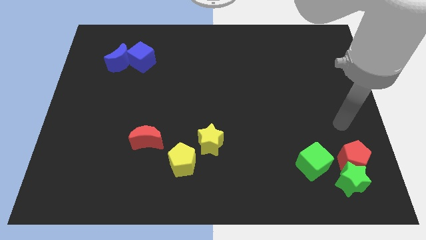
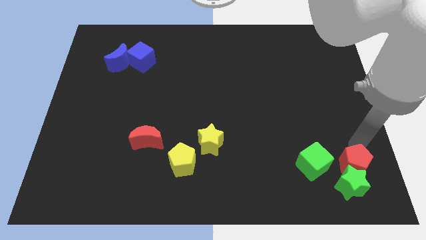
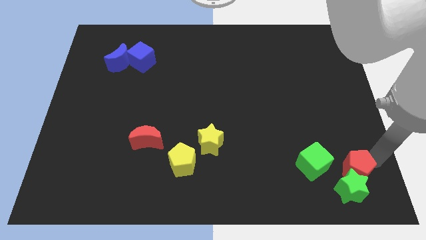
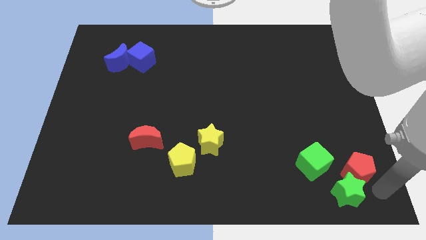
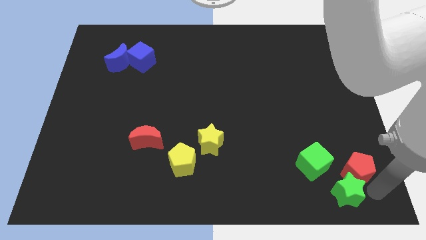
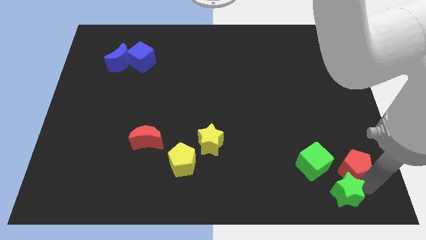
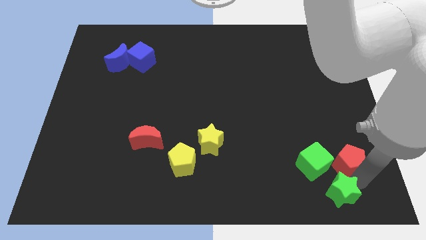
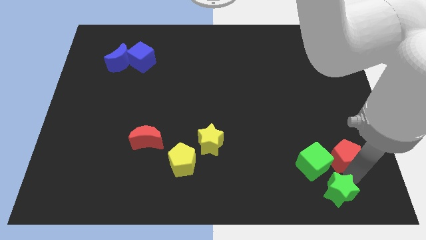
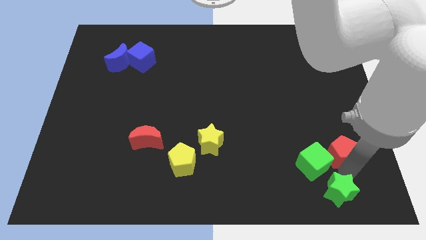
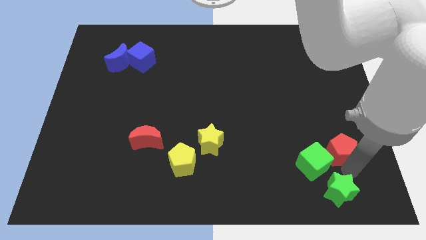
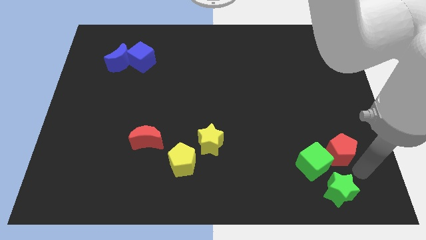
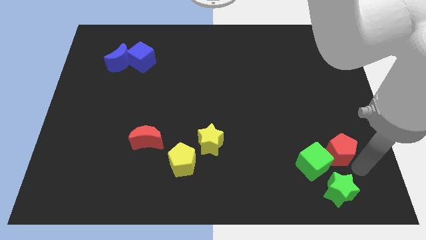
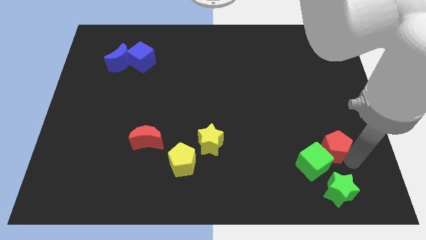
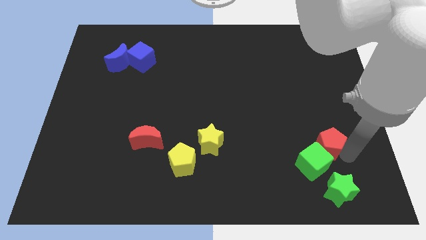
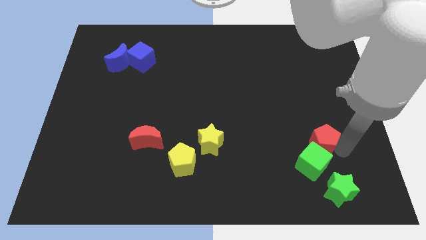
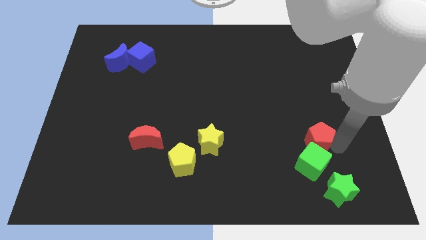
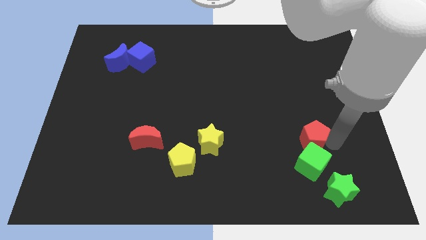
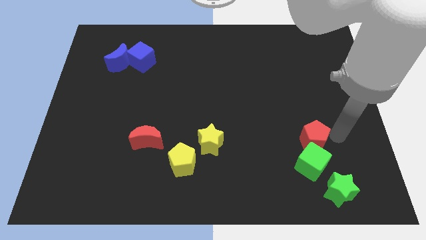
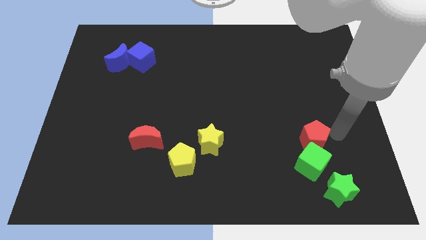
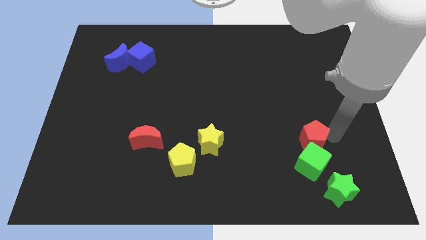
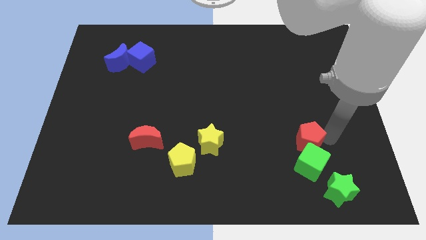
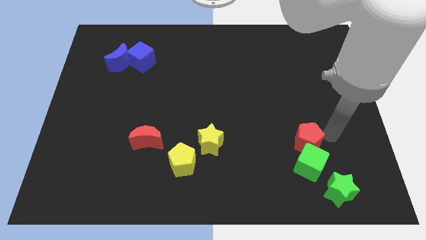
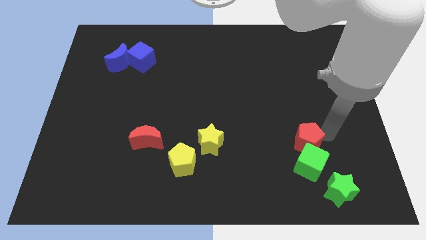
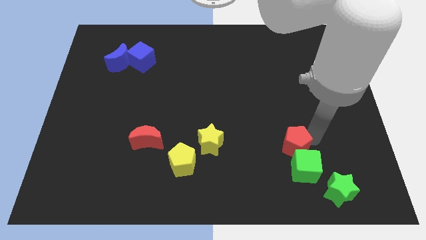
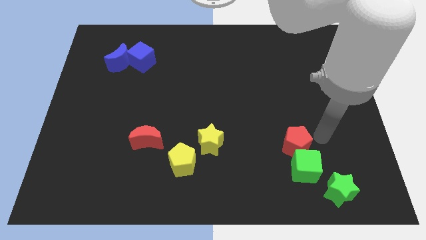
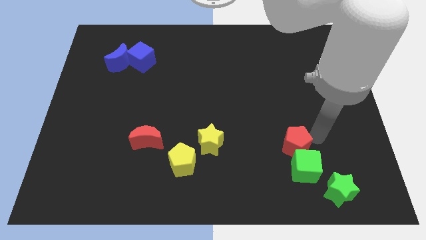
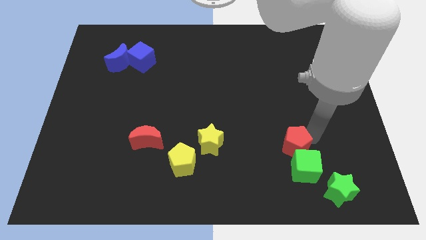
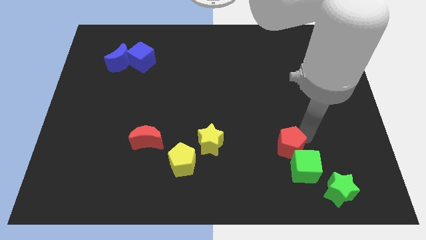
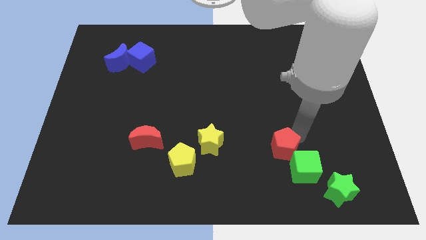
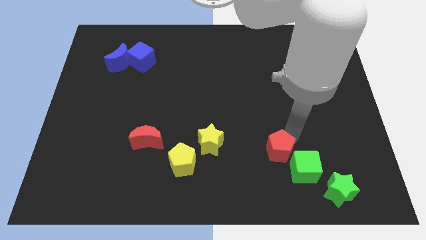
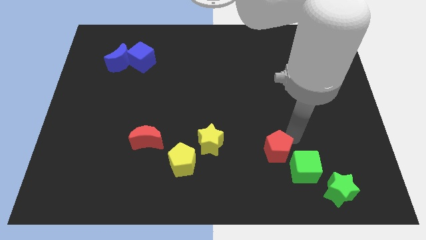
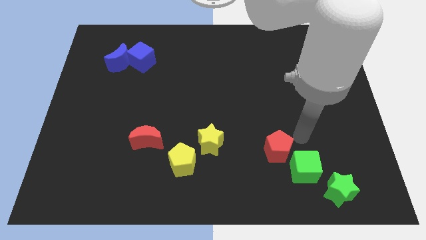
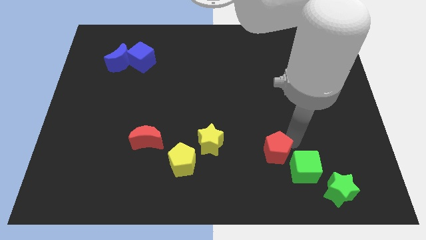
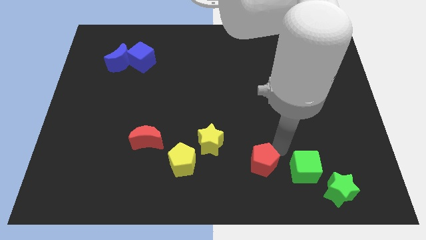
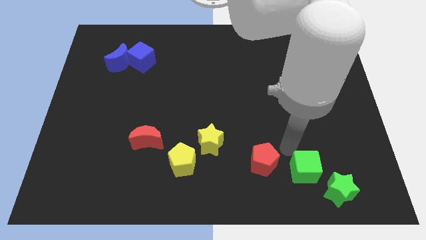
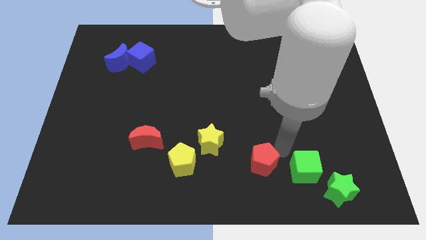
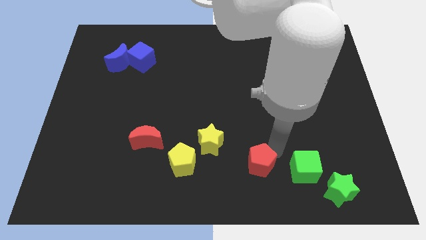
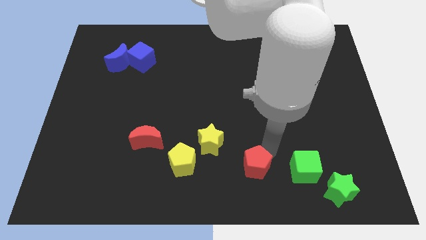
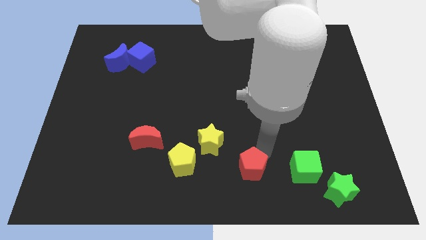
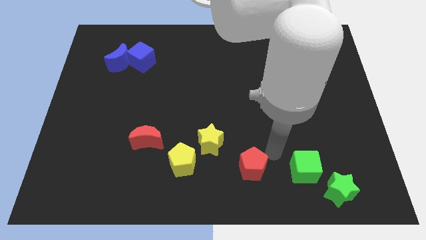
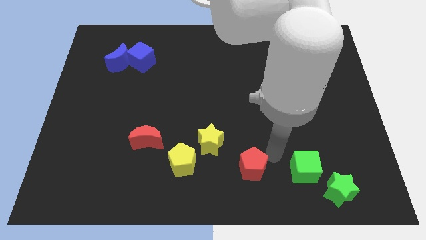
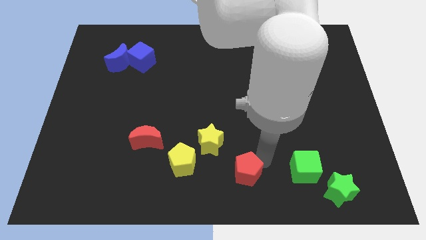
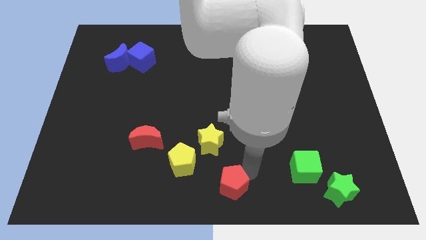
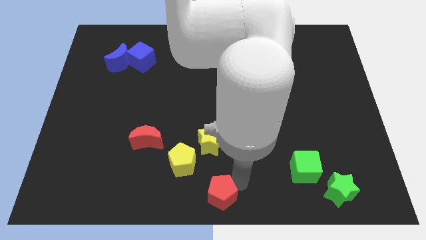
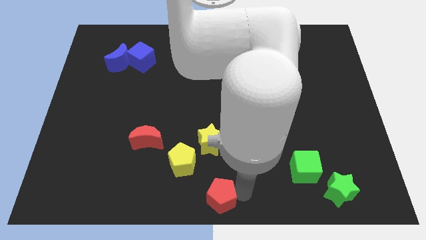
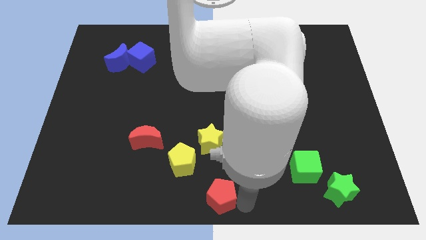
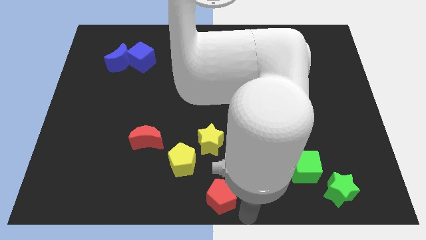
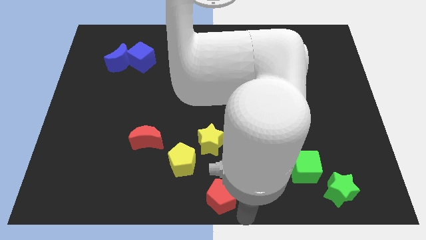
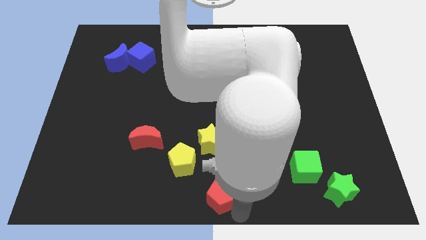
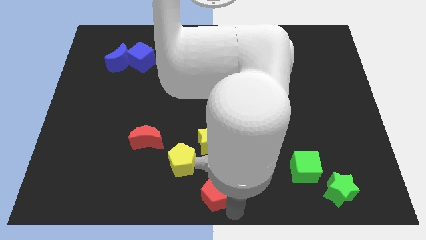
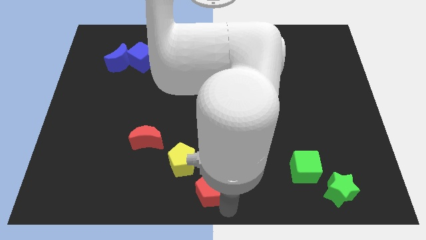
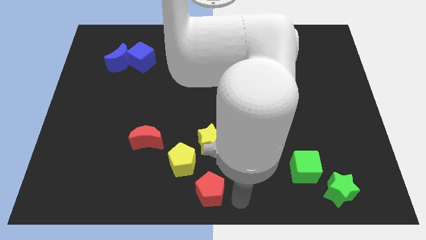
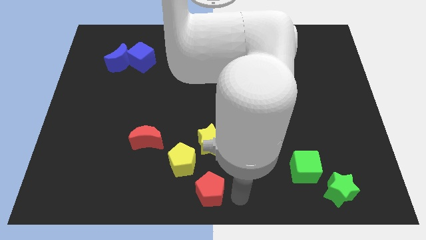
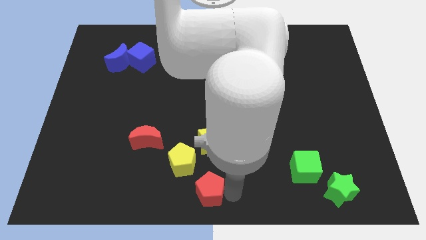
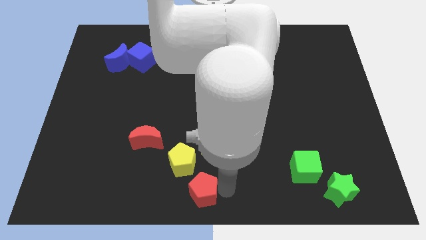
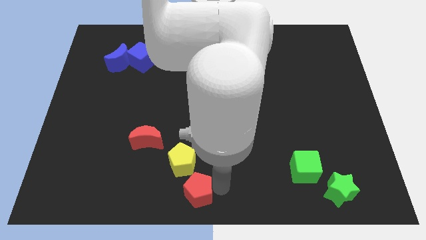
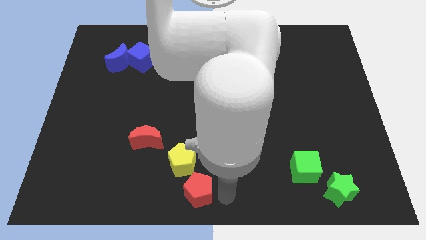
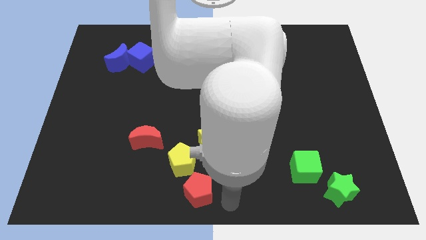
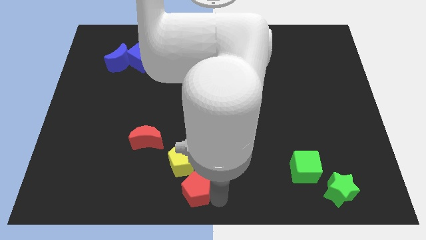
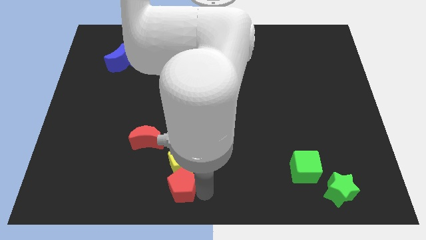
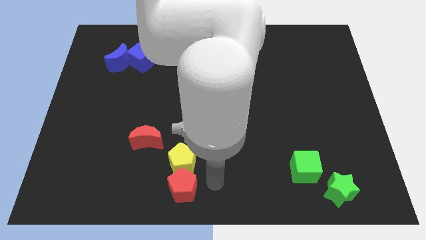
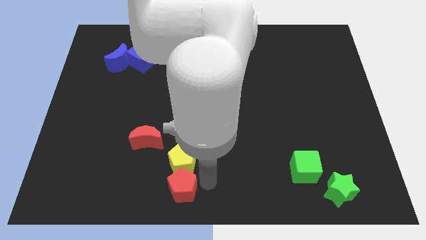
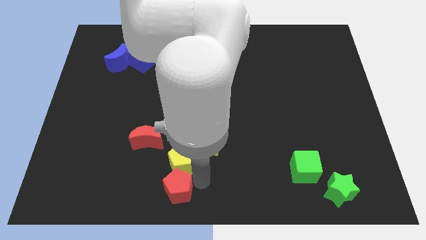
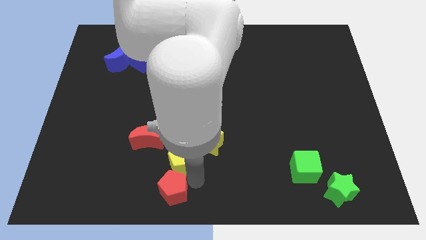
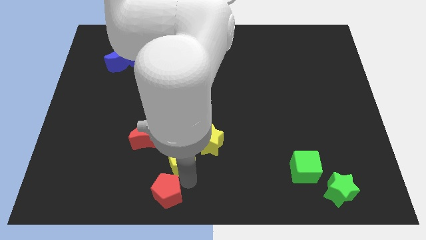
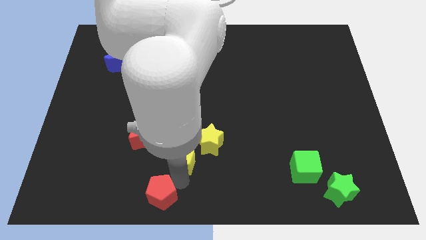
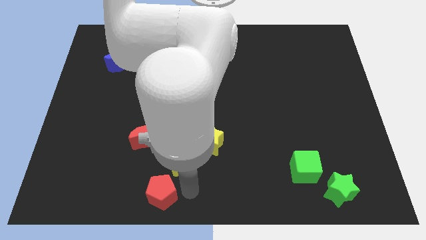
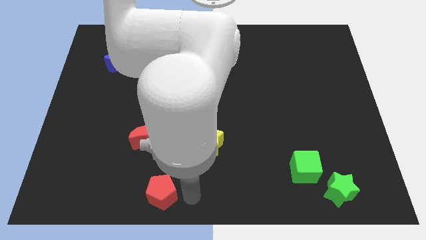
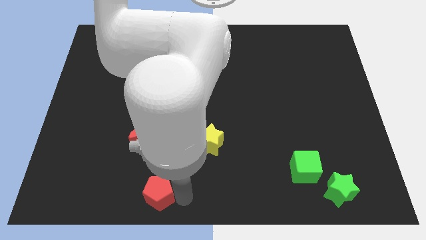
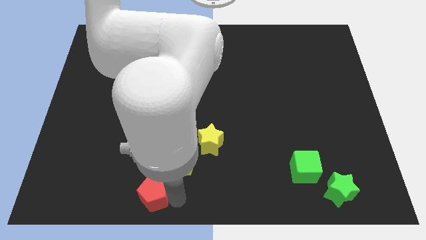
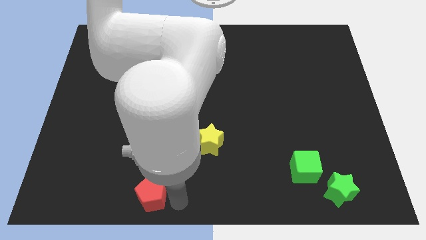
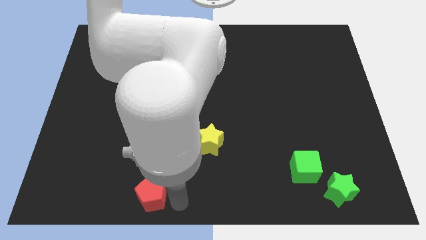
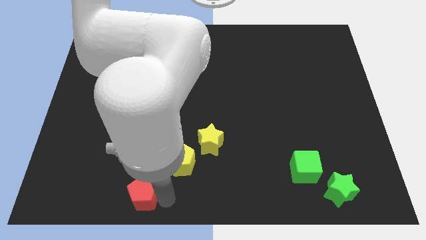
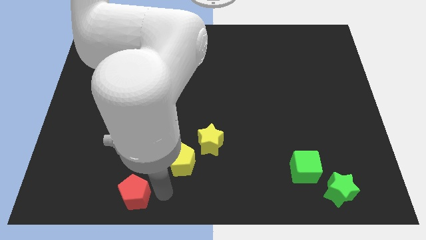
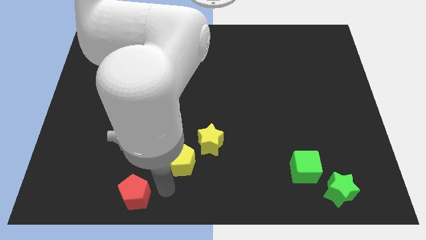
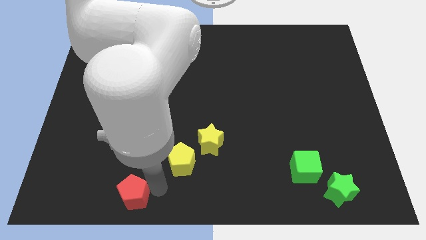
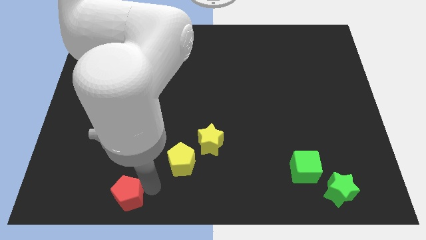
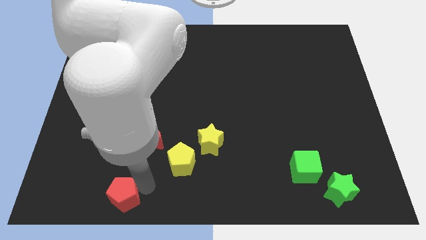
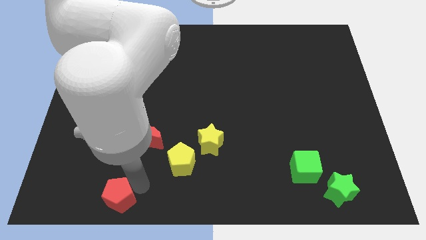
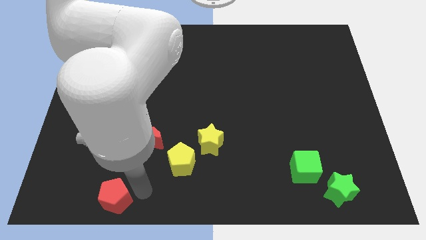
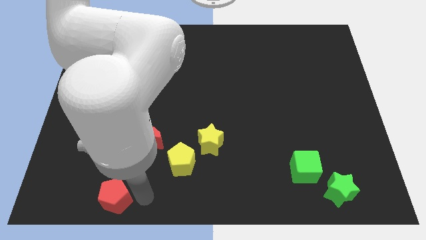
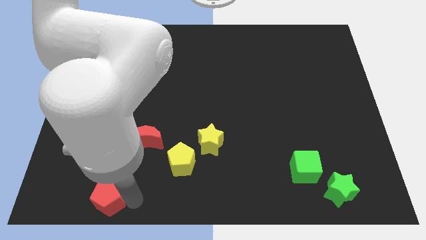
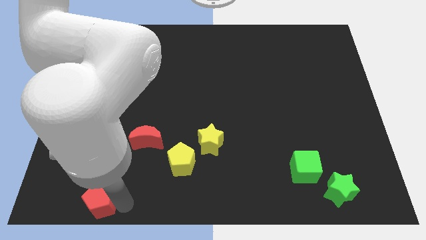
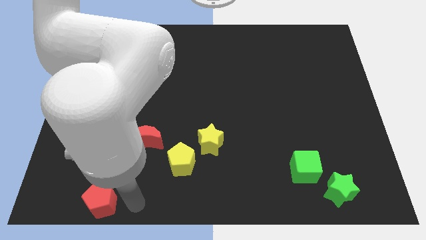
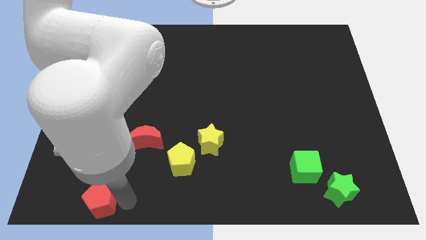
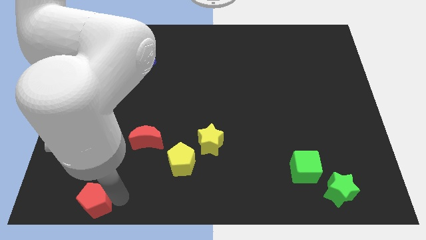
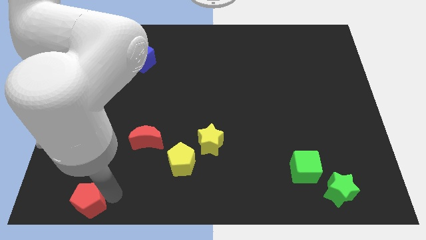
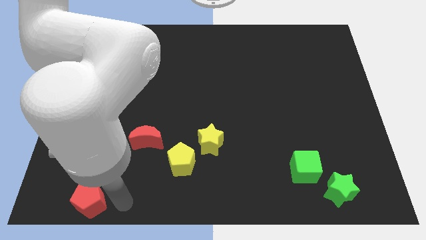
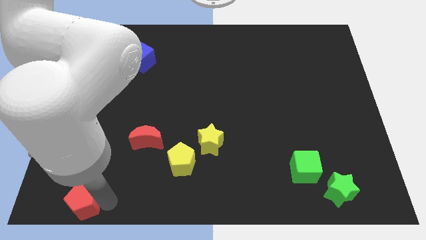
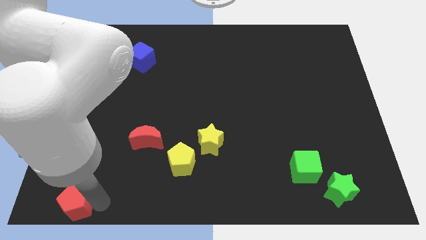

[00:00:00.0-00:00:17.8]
slide the red pentagon to the bottom left corner
